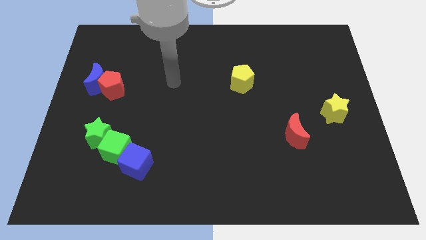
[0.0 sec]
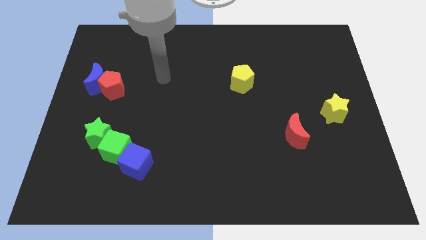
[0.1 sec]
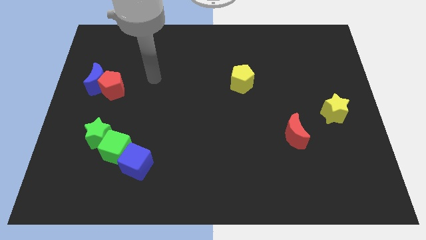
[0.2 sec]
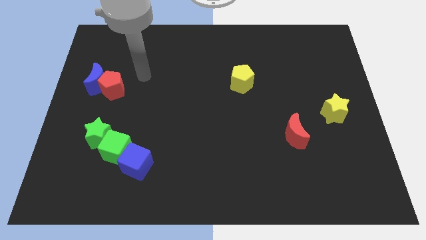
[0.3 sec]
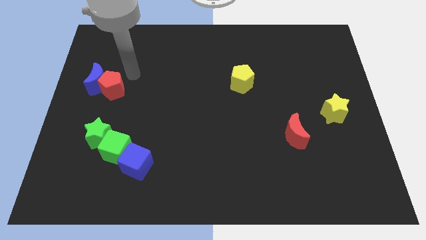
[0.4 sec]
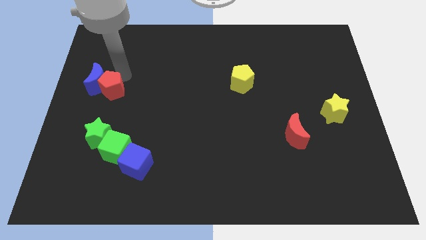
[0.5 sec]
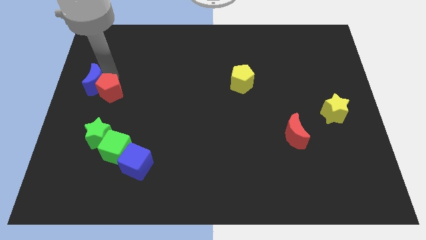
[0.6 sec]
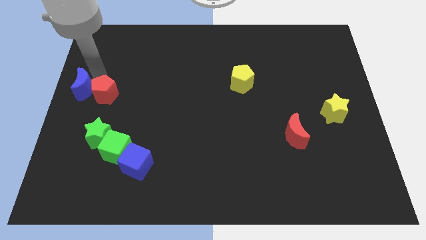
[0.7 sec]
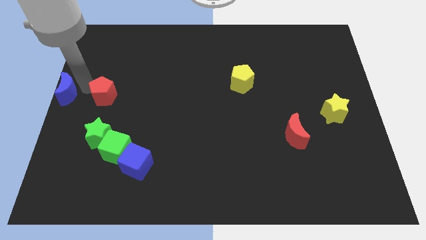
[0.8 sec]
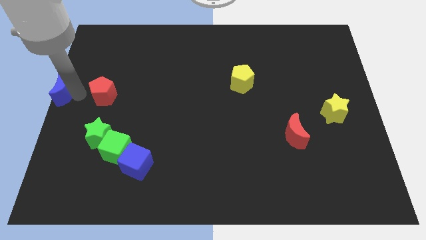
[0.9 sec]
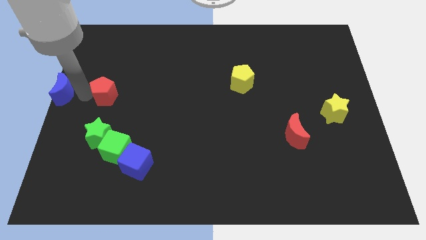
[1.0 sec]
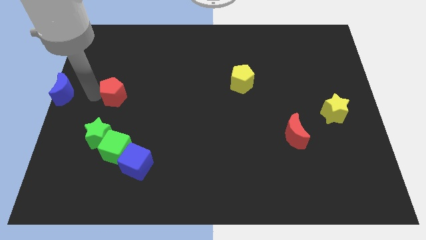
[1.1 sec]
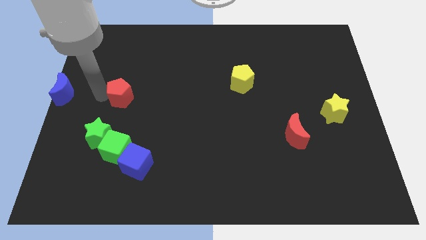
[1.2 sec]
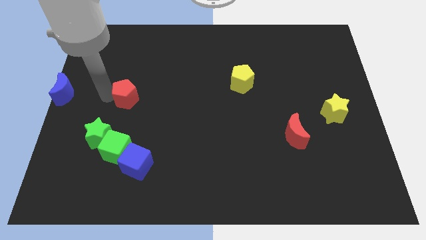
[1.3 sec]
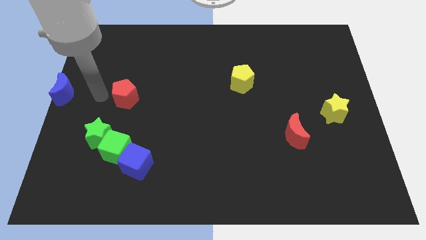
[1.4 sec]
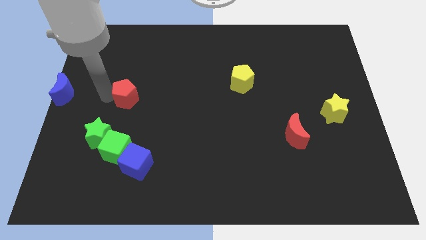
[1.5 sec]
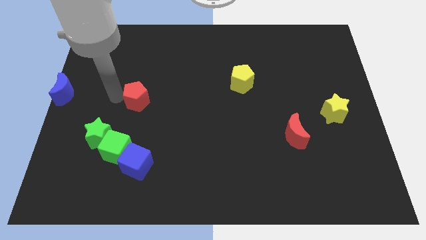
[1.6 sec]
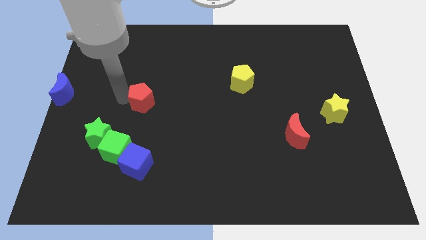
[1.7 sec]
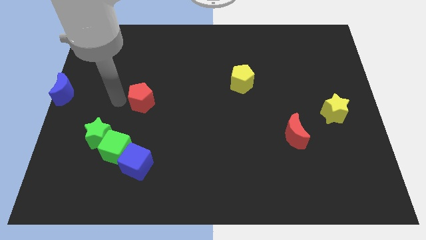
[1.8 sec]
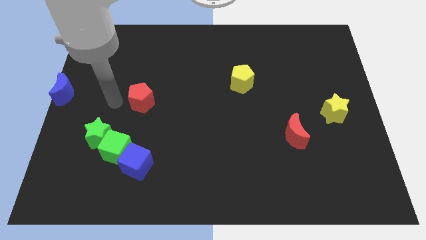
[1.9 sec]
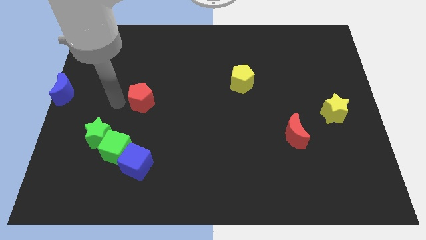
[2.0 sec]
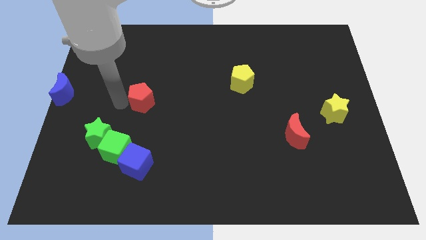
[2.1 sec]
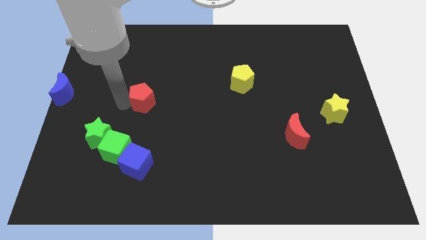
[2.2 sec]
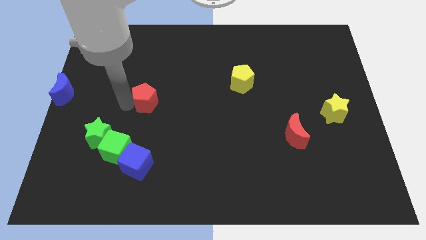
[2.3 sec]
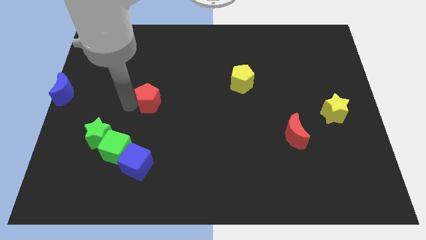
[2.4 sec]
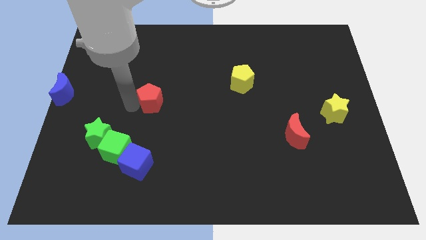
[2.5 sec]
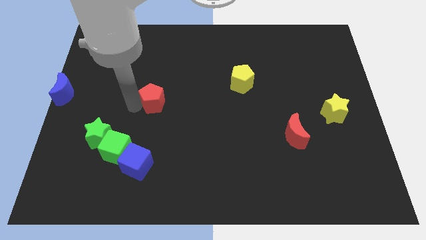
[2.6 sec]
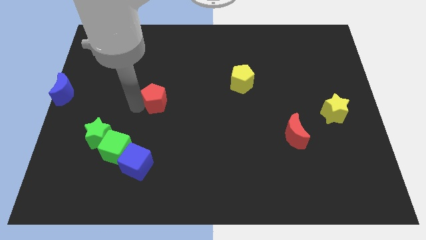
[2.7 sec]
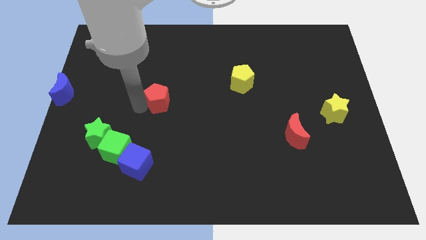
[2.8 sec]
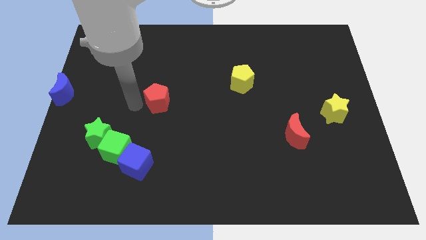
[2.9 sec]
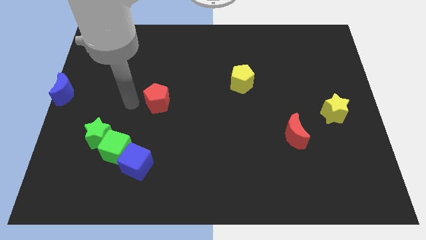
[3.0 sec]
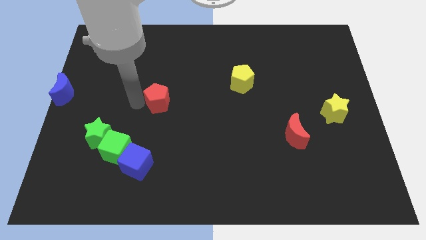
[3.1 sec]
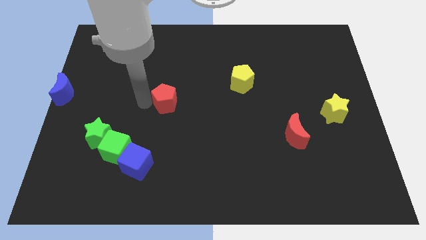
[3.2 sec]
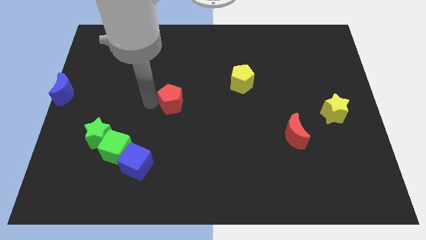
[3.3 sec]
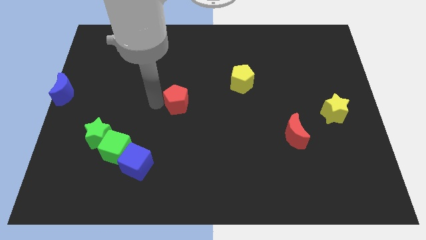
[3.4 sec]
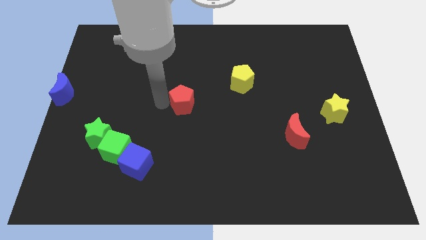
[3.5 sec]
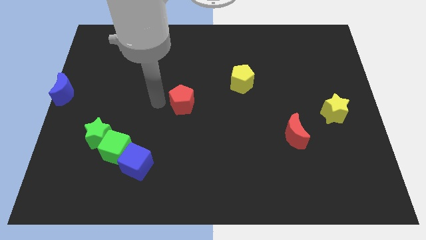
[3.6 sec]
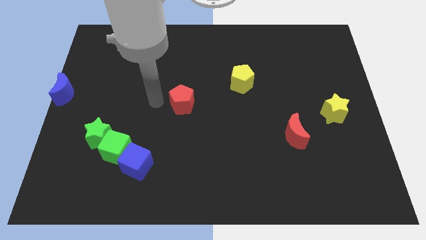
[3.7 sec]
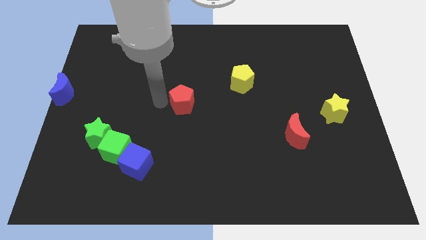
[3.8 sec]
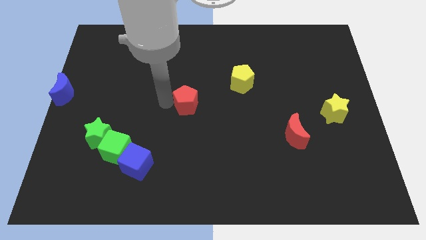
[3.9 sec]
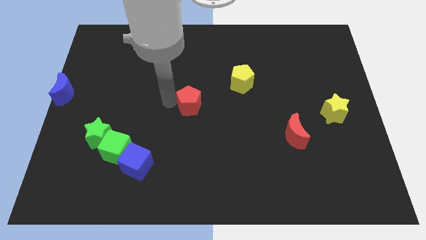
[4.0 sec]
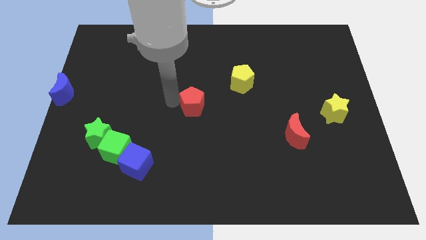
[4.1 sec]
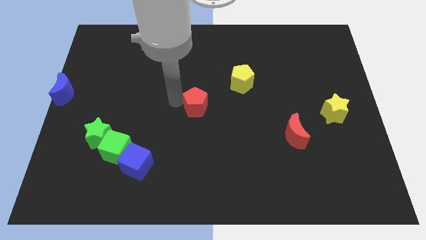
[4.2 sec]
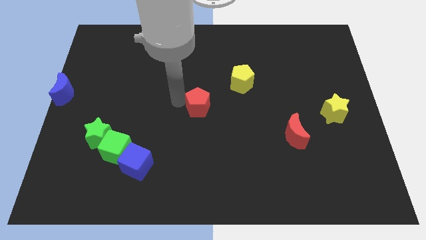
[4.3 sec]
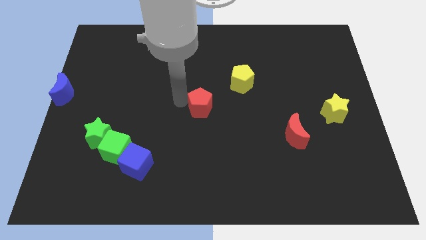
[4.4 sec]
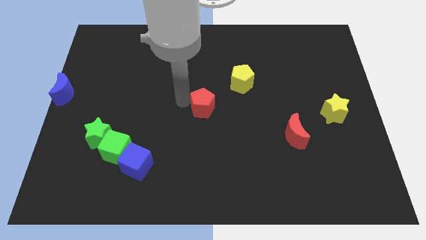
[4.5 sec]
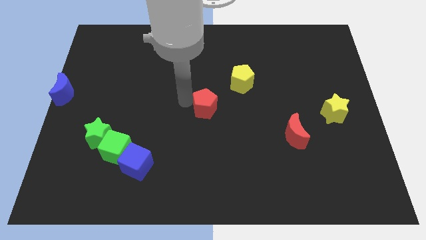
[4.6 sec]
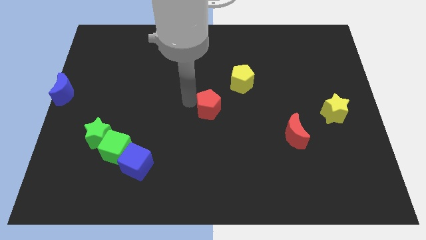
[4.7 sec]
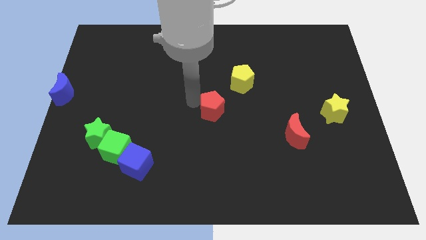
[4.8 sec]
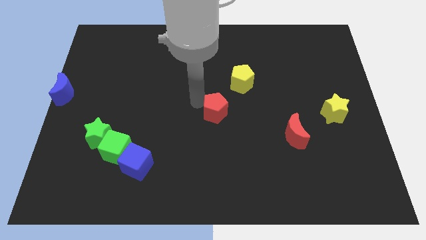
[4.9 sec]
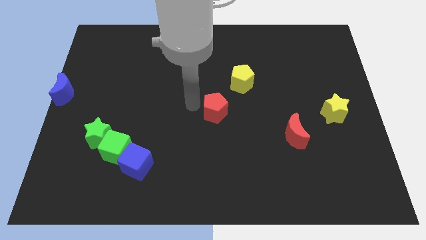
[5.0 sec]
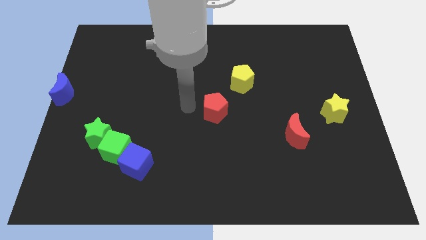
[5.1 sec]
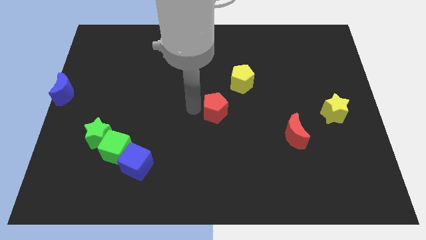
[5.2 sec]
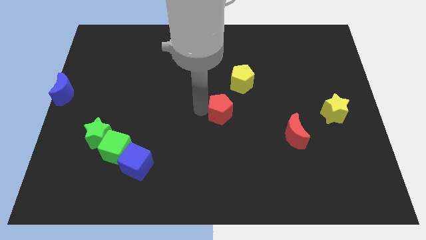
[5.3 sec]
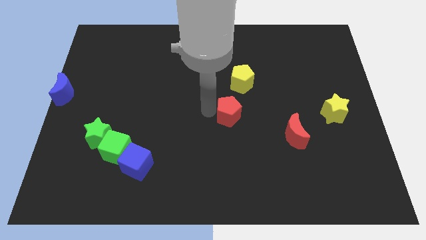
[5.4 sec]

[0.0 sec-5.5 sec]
move the red pentagon below the yellow pentagon

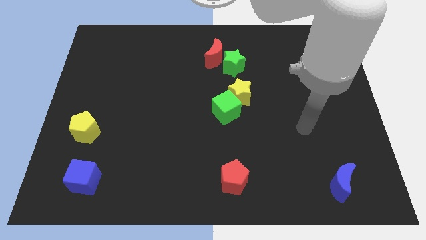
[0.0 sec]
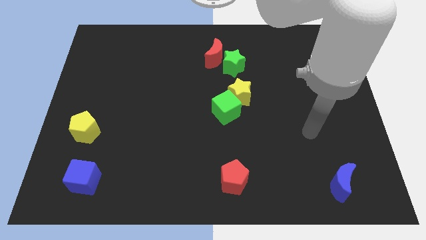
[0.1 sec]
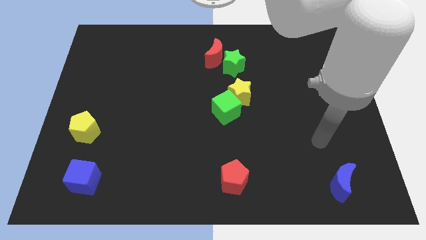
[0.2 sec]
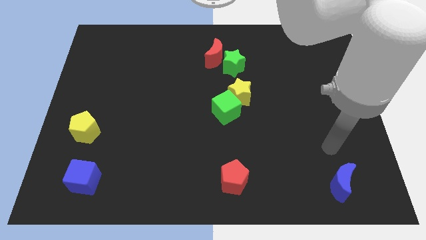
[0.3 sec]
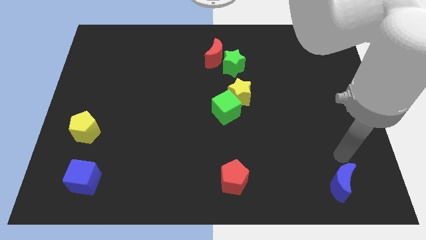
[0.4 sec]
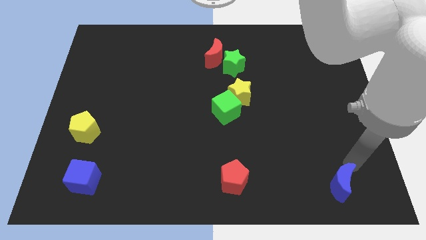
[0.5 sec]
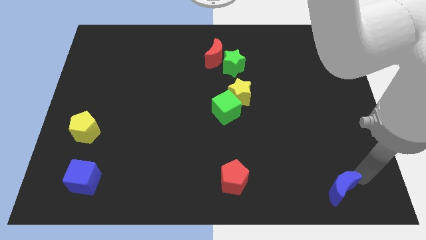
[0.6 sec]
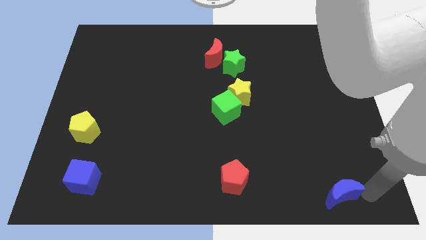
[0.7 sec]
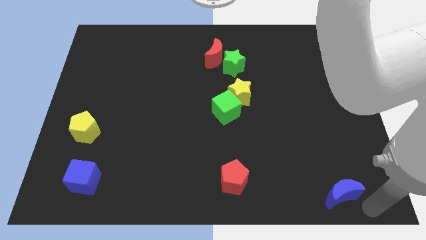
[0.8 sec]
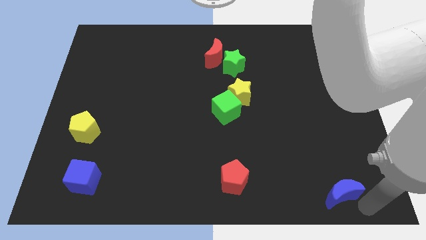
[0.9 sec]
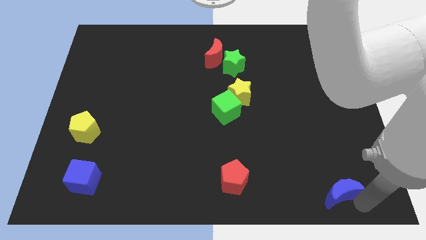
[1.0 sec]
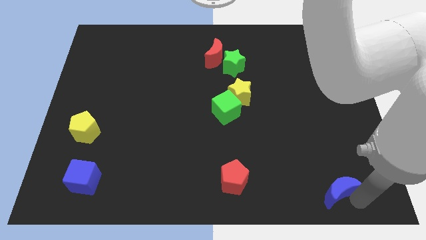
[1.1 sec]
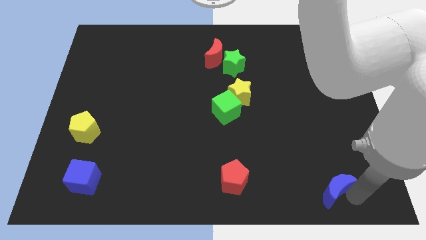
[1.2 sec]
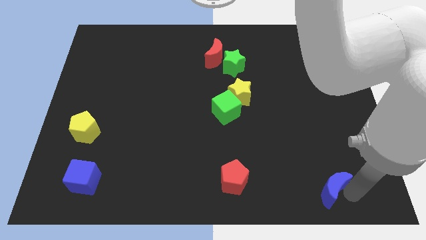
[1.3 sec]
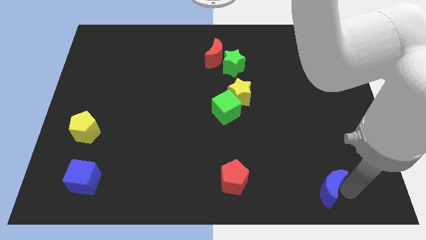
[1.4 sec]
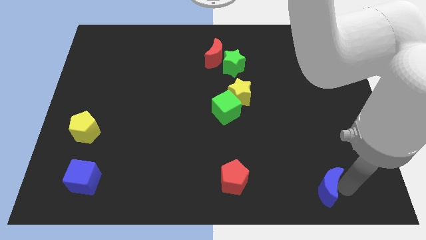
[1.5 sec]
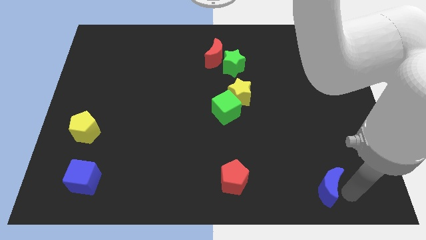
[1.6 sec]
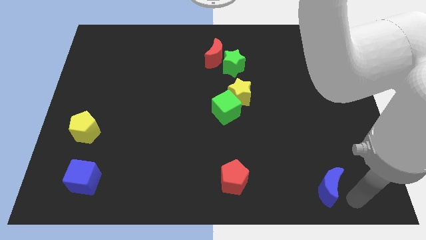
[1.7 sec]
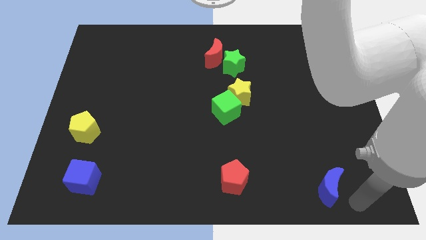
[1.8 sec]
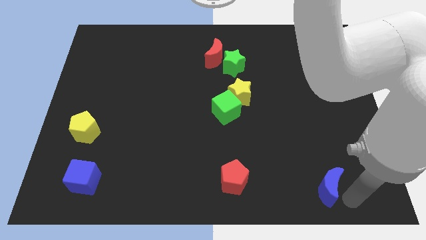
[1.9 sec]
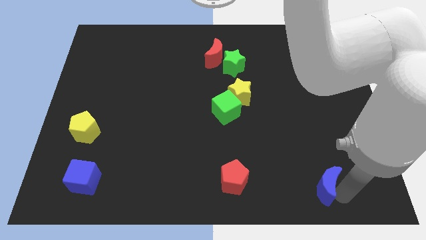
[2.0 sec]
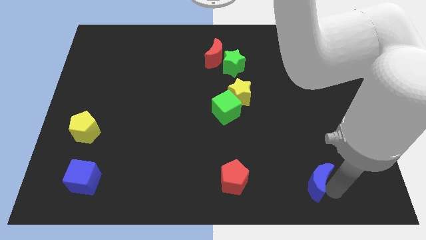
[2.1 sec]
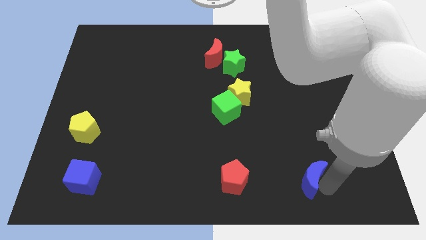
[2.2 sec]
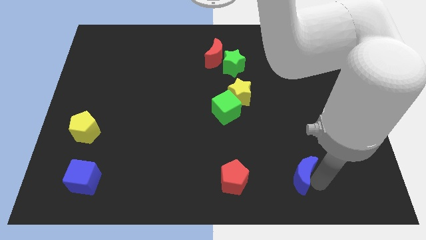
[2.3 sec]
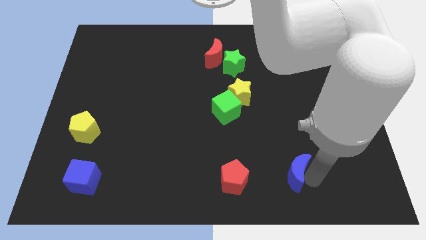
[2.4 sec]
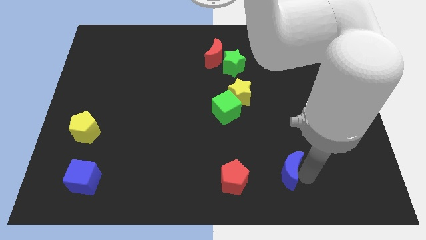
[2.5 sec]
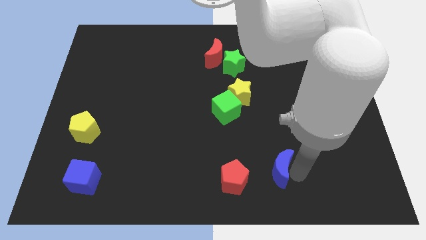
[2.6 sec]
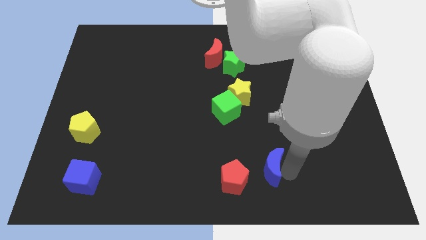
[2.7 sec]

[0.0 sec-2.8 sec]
move the blue moon diagonally up and to the right of the red pentagon
